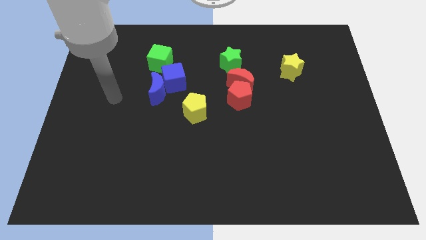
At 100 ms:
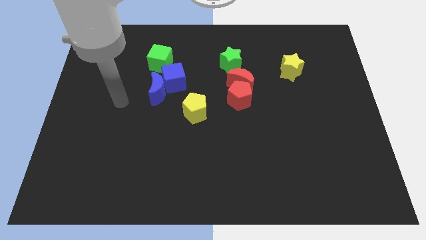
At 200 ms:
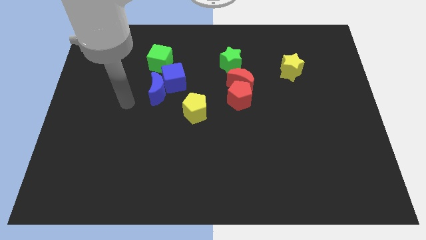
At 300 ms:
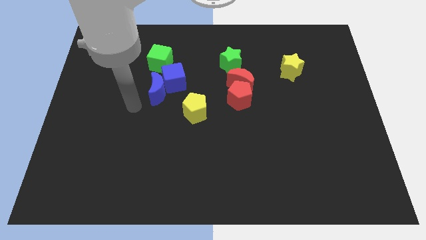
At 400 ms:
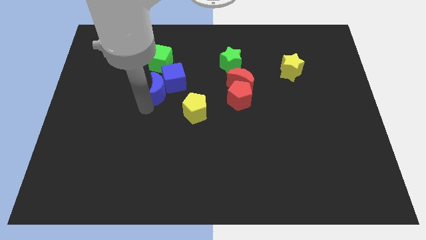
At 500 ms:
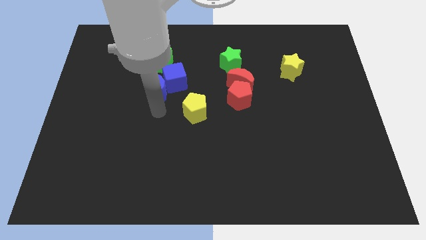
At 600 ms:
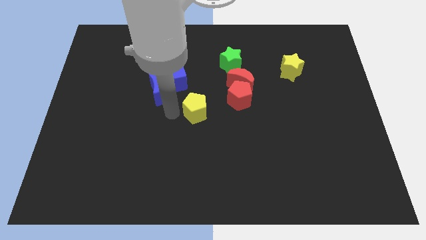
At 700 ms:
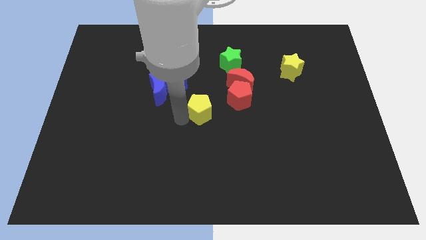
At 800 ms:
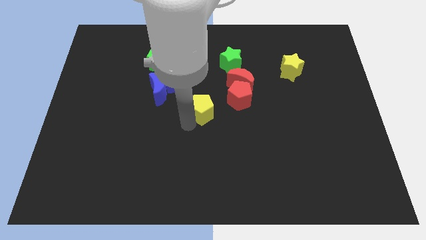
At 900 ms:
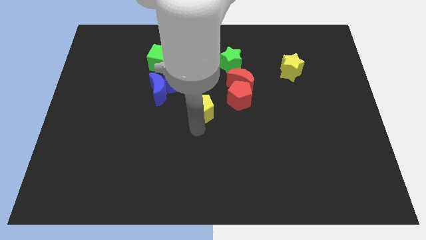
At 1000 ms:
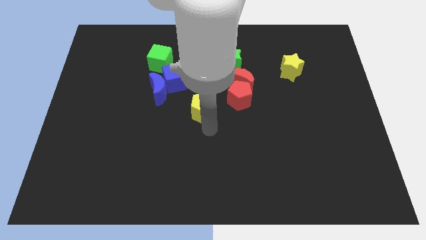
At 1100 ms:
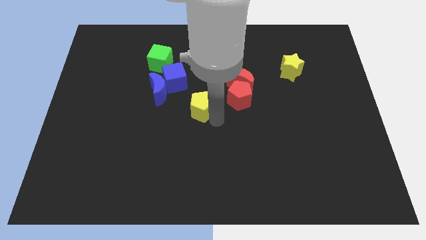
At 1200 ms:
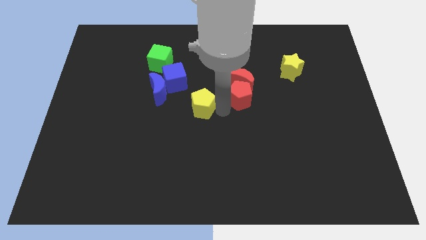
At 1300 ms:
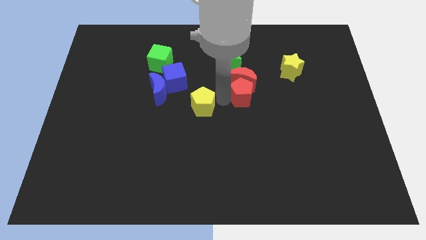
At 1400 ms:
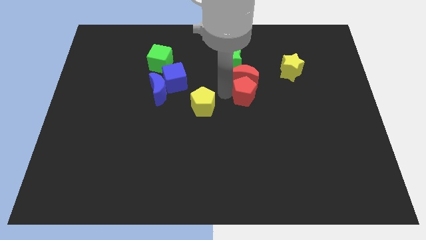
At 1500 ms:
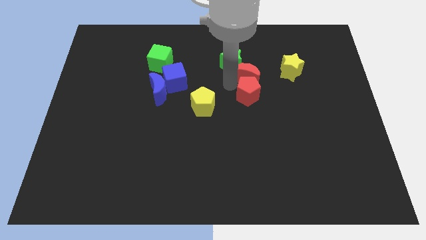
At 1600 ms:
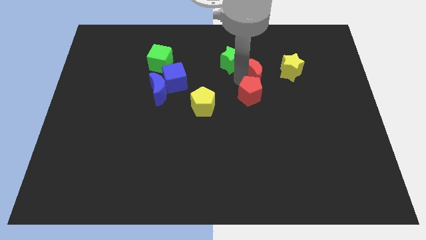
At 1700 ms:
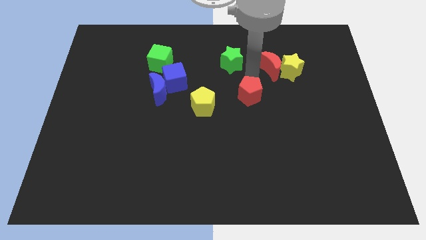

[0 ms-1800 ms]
separate the red pentagon from the red moon

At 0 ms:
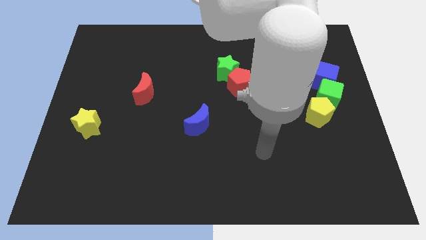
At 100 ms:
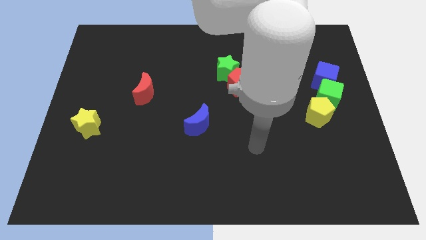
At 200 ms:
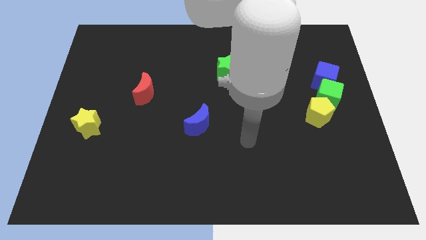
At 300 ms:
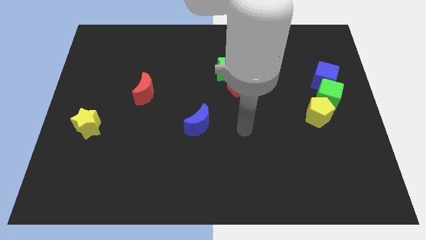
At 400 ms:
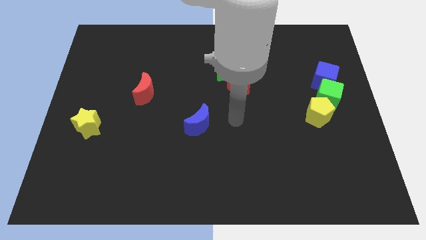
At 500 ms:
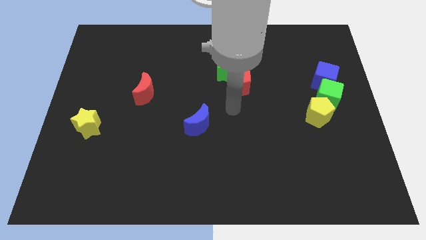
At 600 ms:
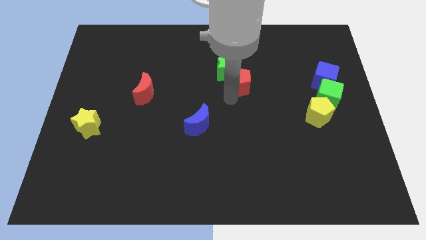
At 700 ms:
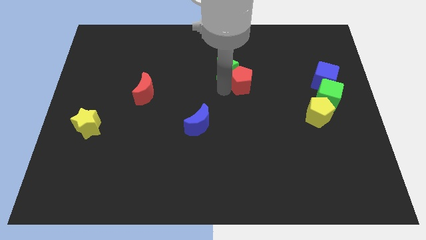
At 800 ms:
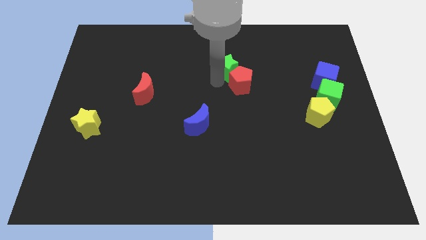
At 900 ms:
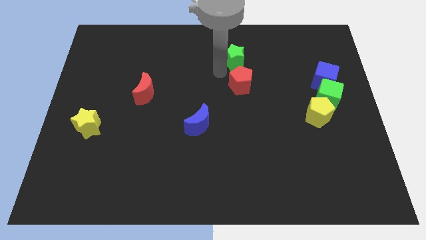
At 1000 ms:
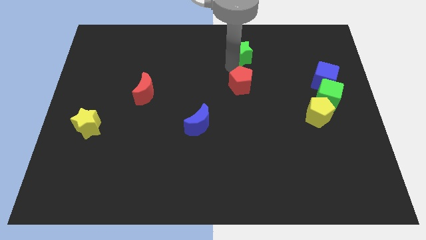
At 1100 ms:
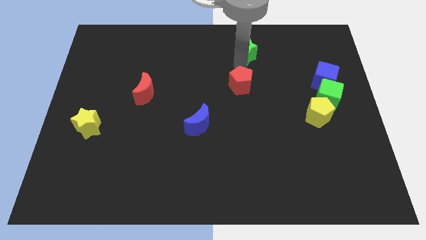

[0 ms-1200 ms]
separate the red pentagon from the green star

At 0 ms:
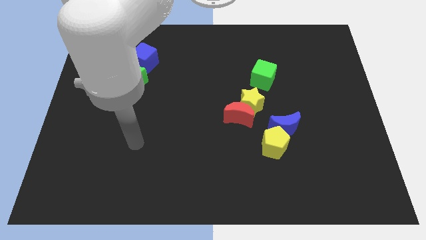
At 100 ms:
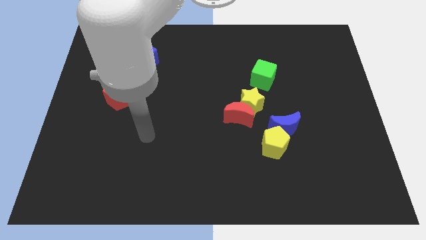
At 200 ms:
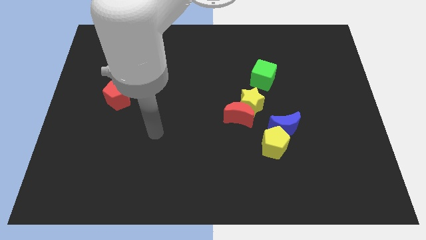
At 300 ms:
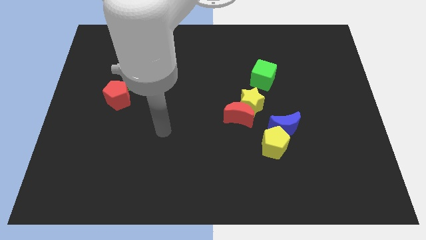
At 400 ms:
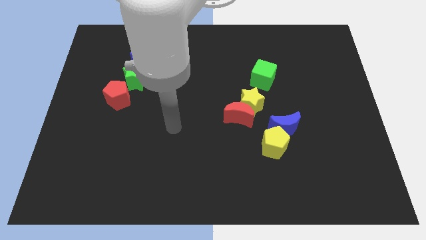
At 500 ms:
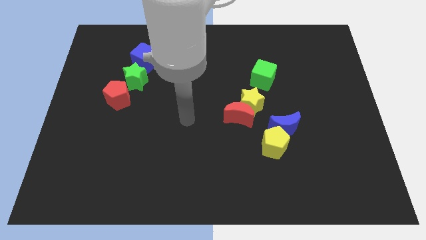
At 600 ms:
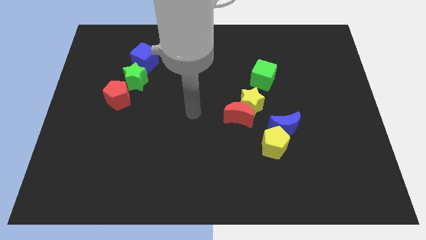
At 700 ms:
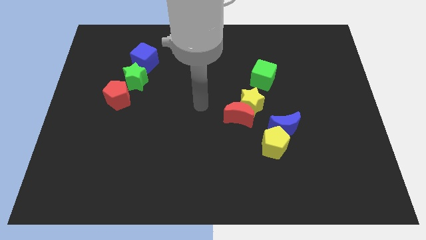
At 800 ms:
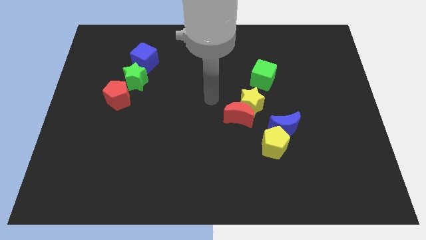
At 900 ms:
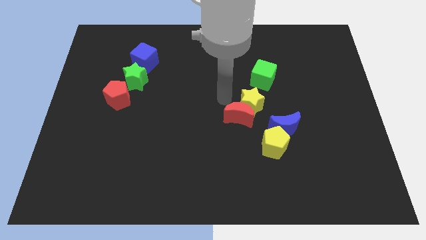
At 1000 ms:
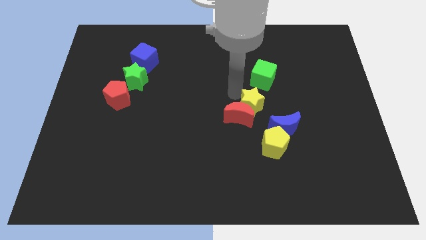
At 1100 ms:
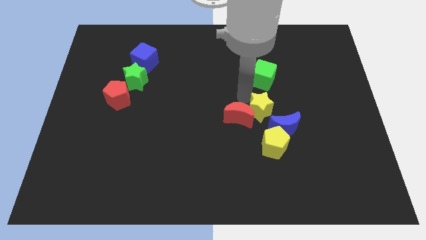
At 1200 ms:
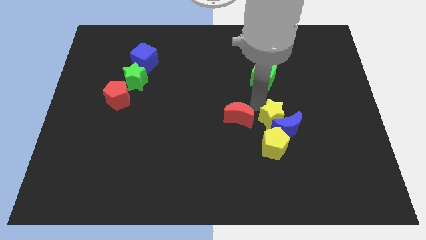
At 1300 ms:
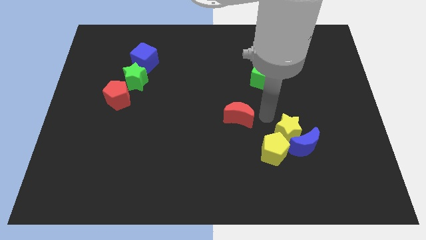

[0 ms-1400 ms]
move the red moon away from the yellow star

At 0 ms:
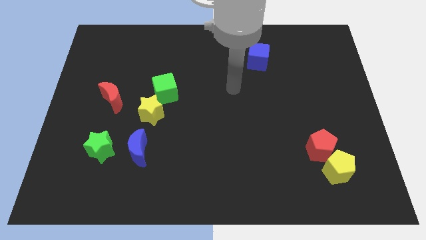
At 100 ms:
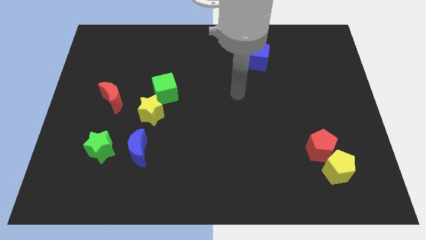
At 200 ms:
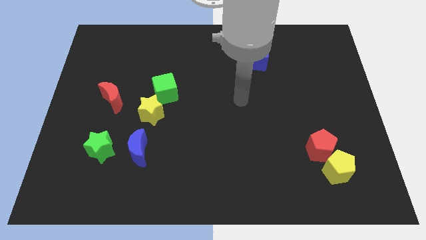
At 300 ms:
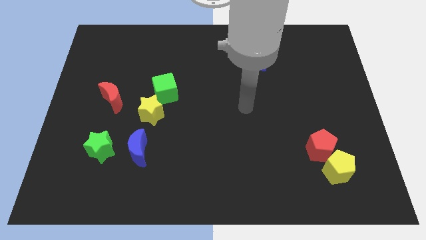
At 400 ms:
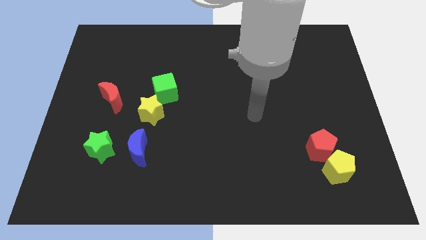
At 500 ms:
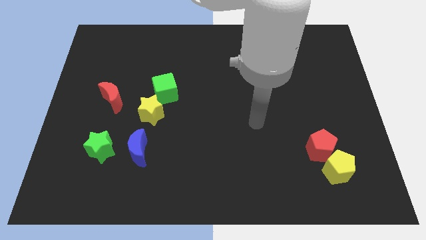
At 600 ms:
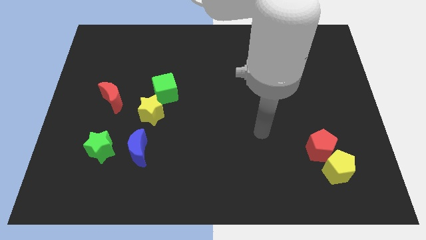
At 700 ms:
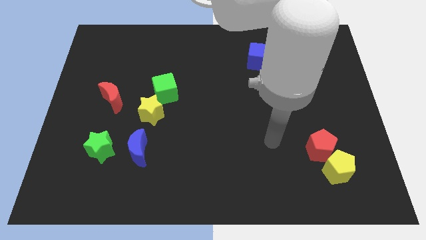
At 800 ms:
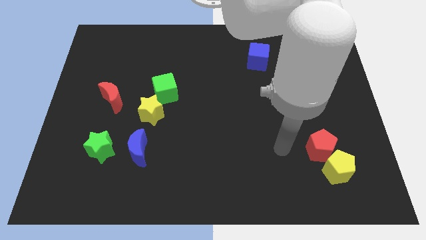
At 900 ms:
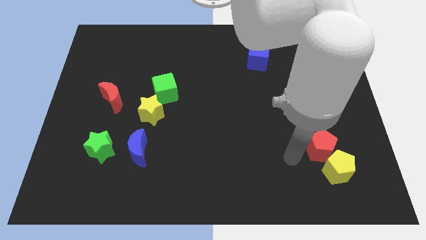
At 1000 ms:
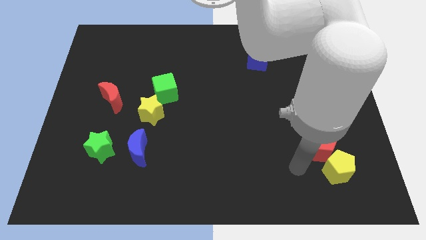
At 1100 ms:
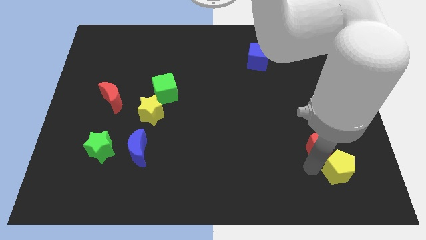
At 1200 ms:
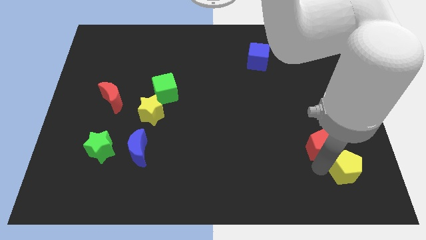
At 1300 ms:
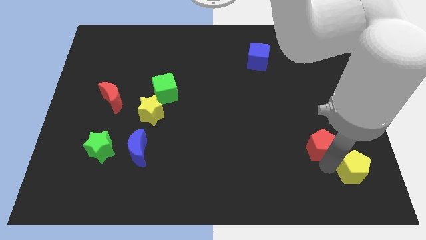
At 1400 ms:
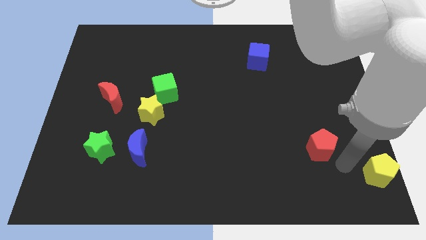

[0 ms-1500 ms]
pull the red pentagon apart from the yellow pentagon

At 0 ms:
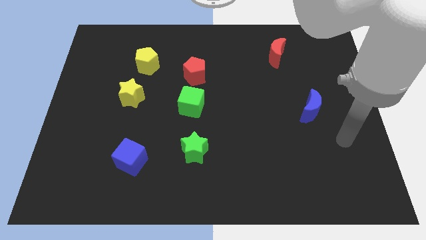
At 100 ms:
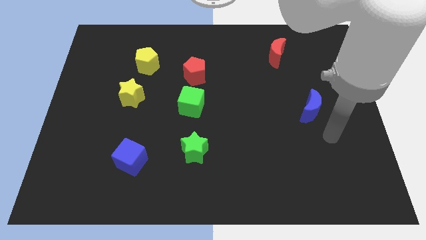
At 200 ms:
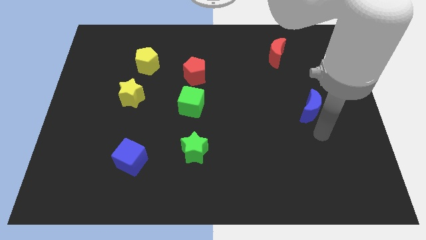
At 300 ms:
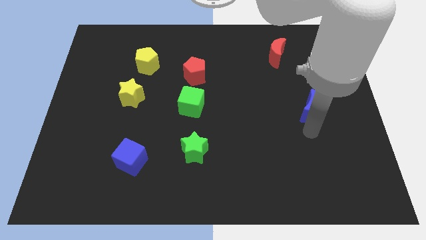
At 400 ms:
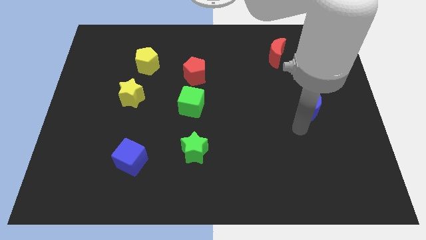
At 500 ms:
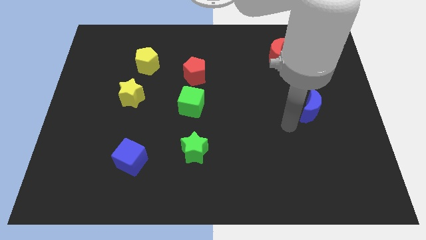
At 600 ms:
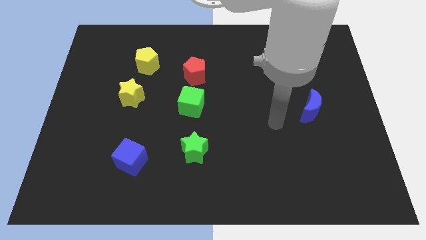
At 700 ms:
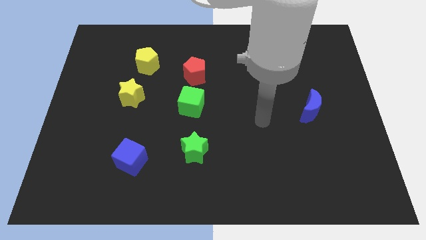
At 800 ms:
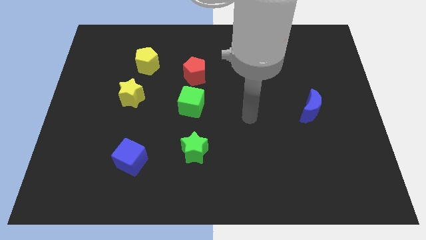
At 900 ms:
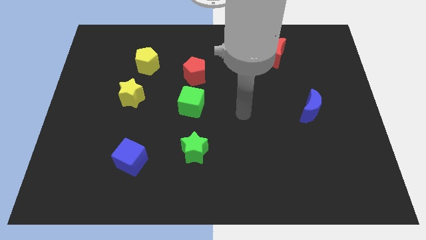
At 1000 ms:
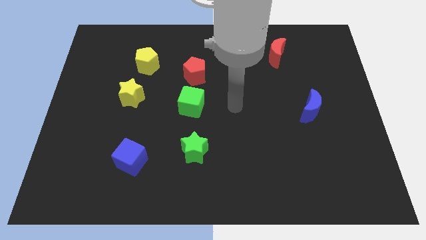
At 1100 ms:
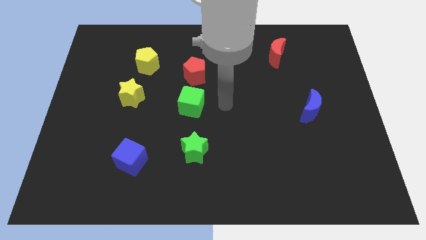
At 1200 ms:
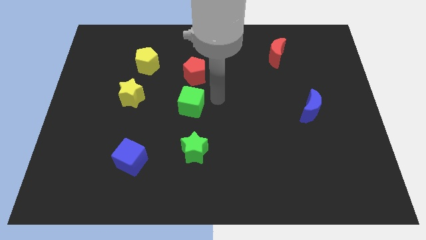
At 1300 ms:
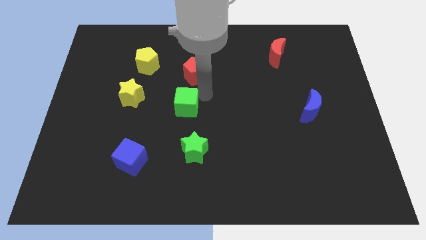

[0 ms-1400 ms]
separate the red pentagon from the green cube

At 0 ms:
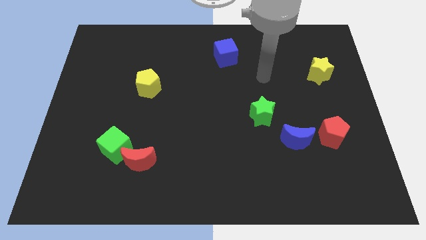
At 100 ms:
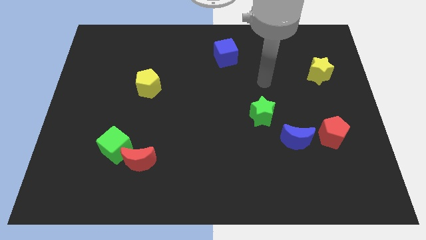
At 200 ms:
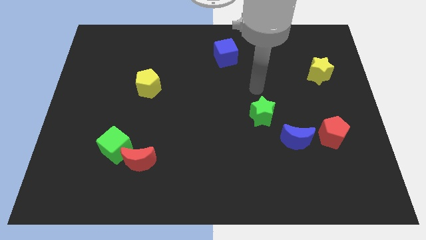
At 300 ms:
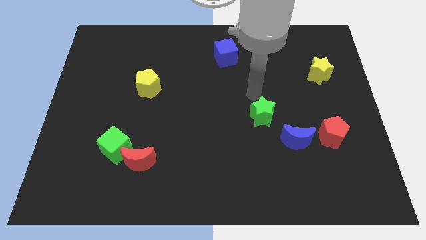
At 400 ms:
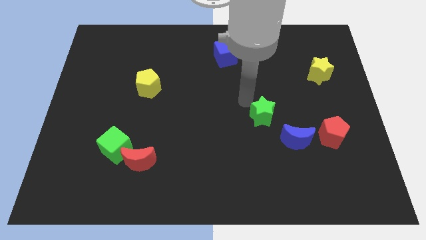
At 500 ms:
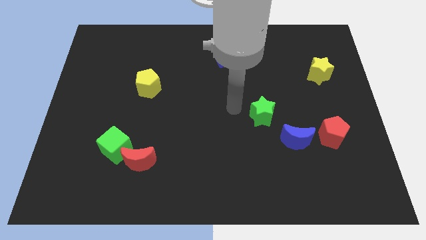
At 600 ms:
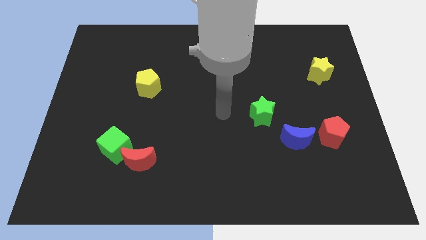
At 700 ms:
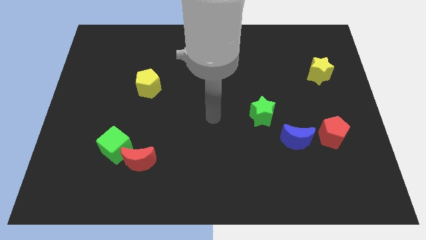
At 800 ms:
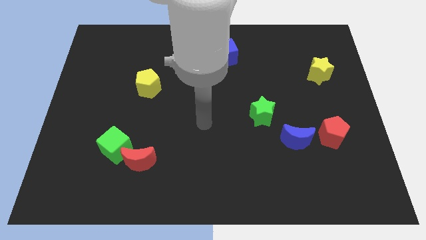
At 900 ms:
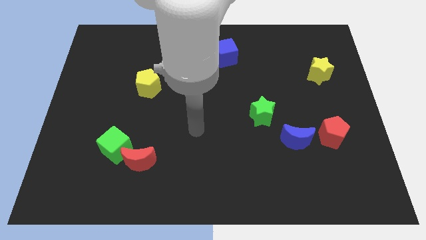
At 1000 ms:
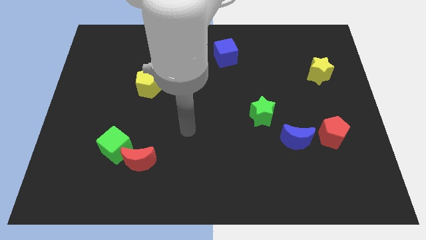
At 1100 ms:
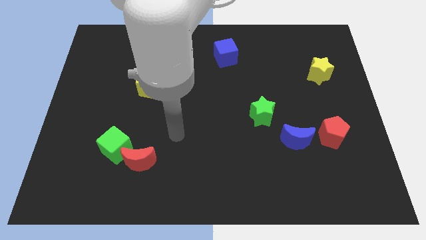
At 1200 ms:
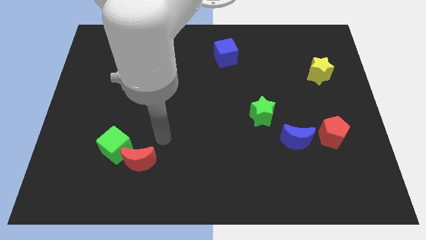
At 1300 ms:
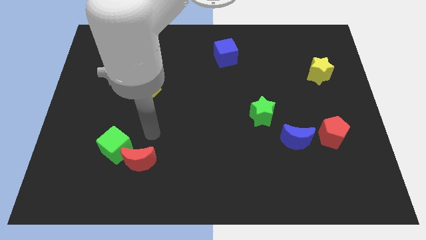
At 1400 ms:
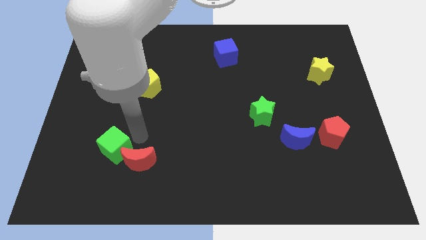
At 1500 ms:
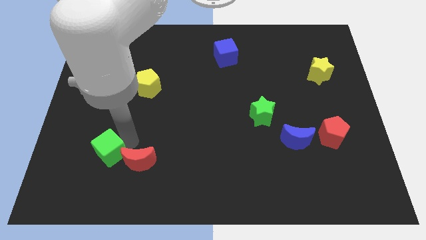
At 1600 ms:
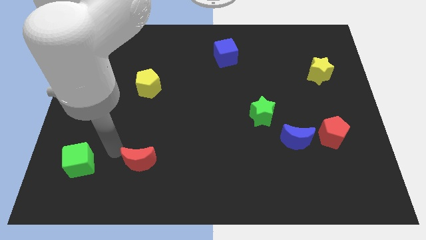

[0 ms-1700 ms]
separate the red moon from the green cube

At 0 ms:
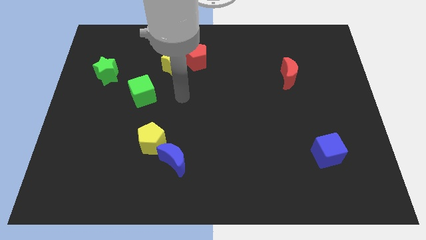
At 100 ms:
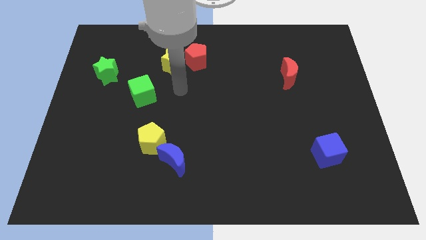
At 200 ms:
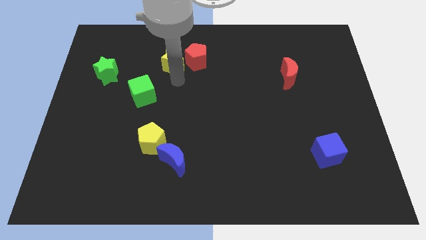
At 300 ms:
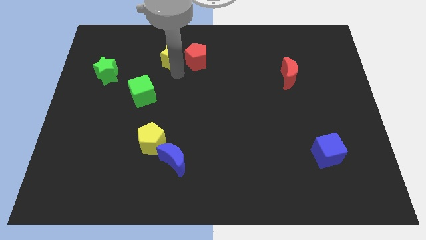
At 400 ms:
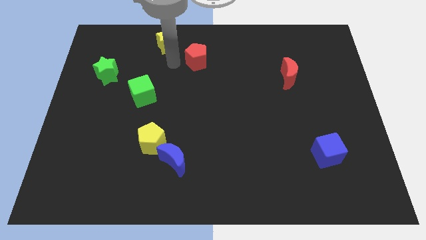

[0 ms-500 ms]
pull the red pentagon apart from the yellow star
